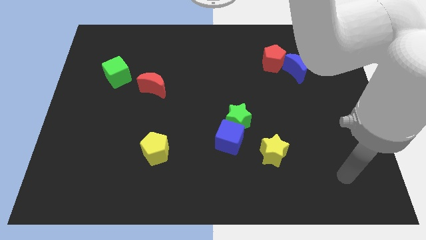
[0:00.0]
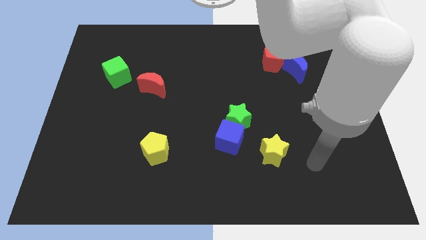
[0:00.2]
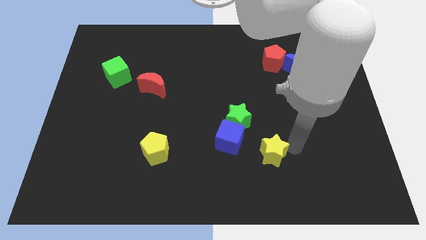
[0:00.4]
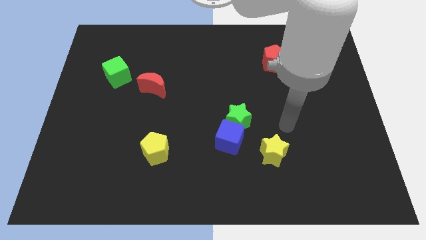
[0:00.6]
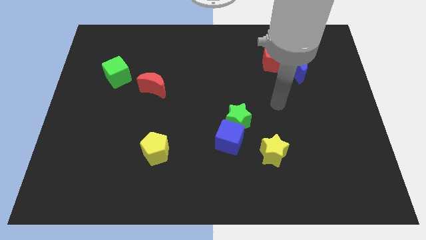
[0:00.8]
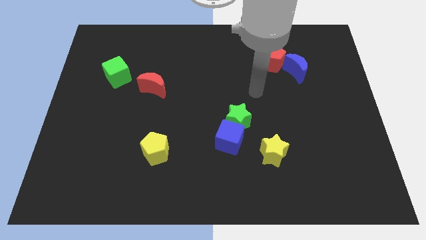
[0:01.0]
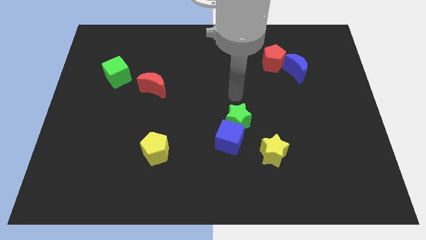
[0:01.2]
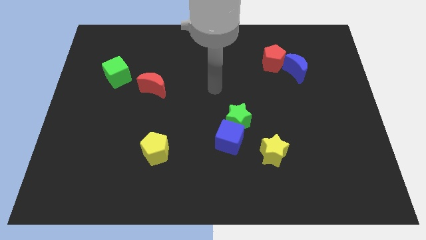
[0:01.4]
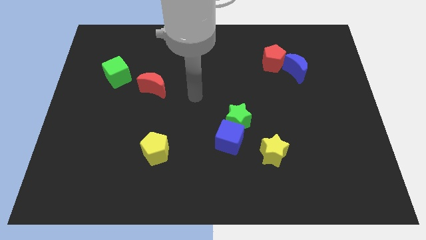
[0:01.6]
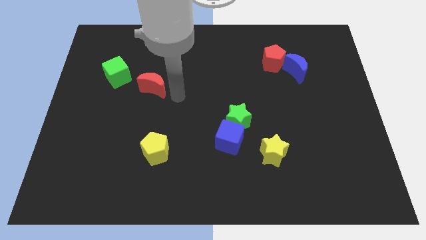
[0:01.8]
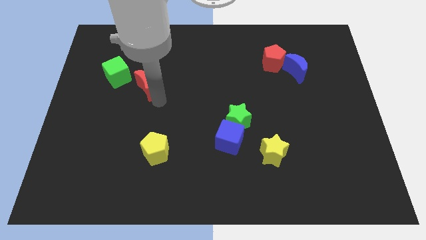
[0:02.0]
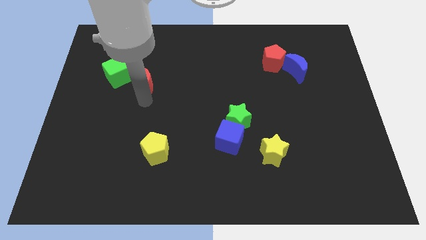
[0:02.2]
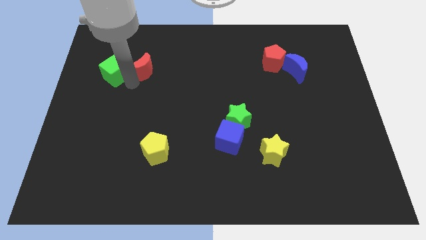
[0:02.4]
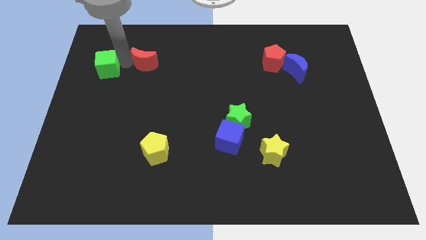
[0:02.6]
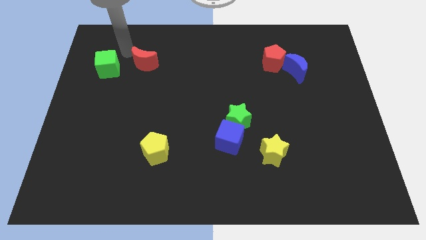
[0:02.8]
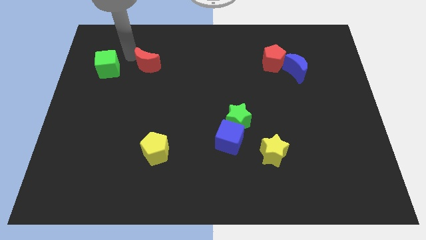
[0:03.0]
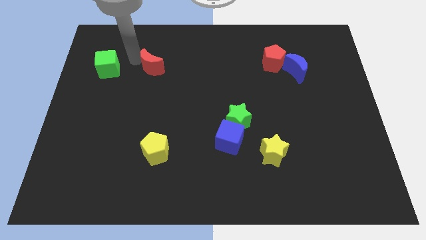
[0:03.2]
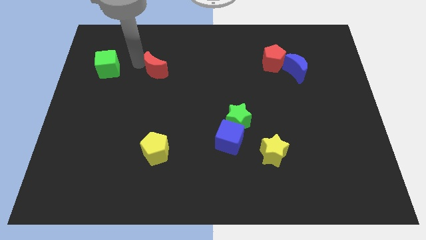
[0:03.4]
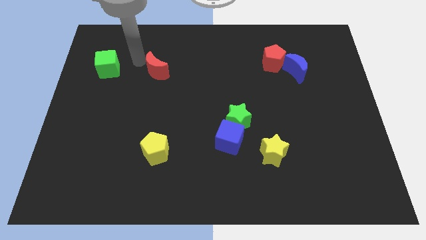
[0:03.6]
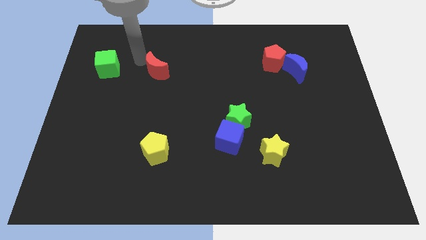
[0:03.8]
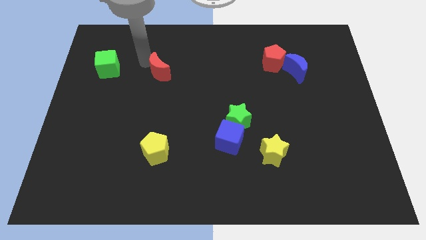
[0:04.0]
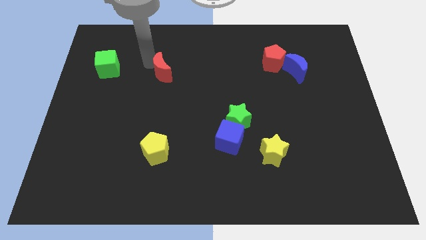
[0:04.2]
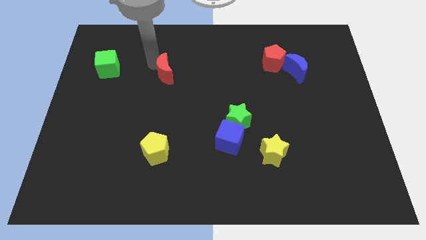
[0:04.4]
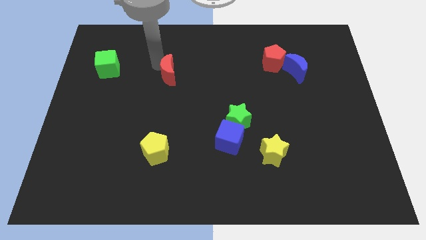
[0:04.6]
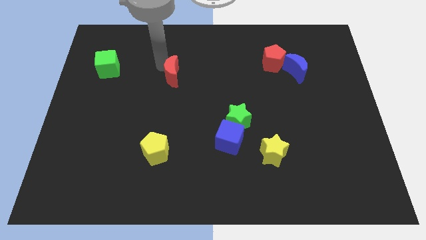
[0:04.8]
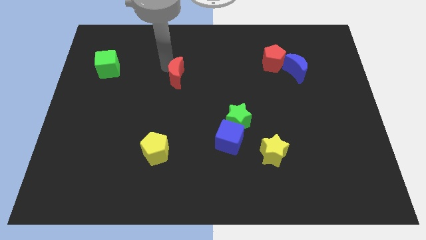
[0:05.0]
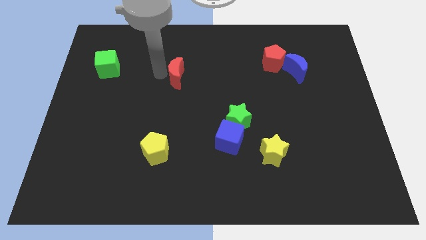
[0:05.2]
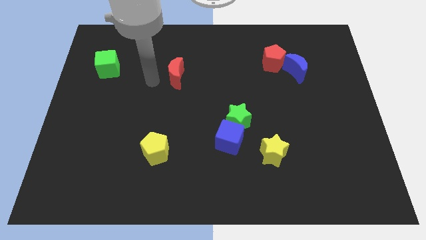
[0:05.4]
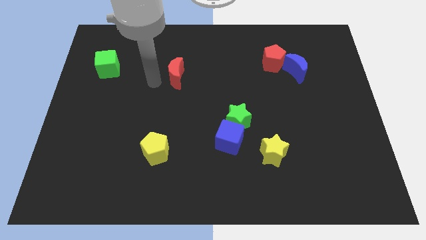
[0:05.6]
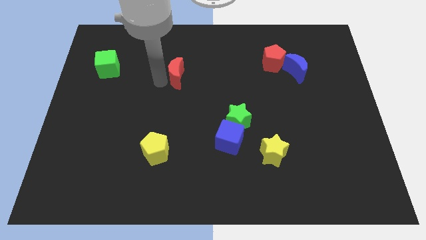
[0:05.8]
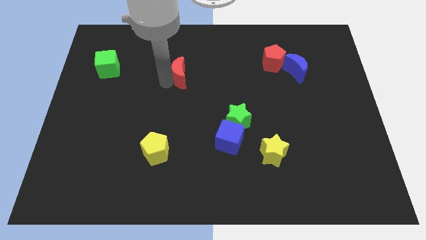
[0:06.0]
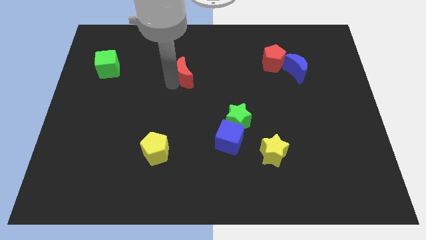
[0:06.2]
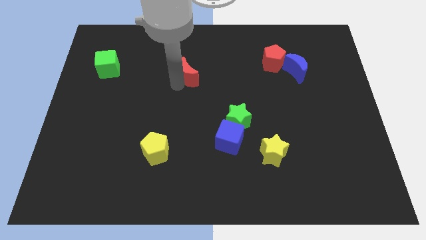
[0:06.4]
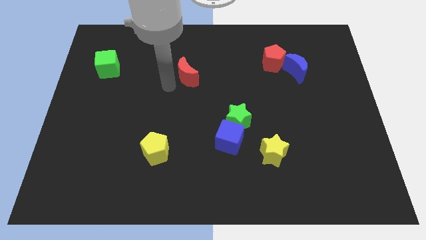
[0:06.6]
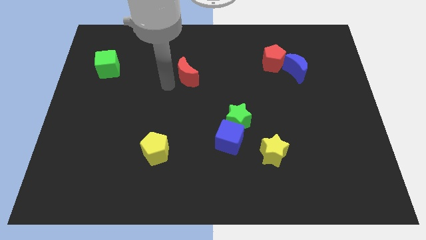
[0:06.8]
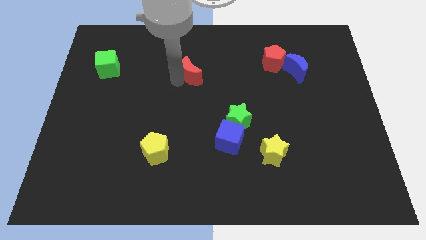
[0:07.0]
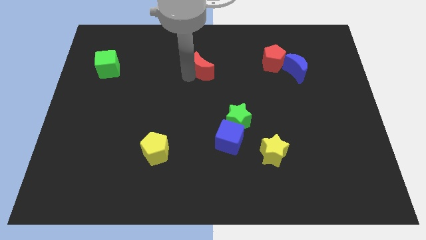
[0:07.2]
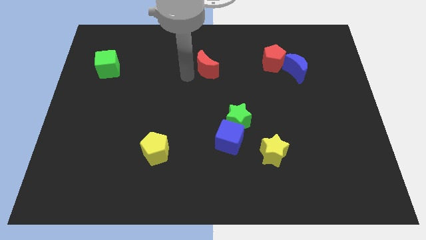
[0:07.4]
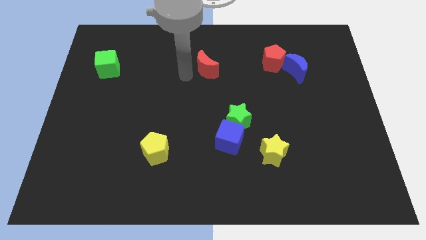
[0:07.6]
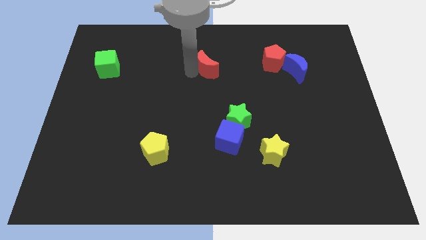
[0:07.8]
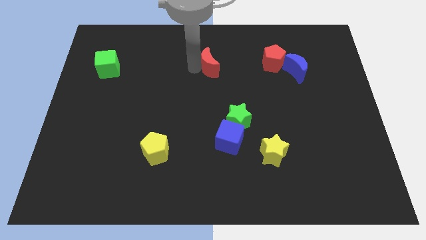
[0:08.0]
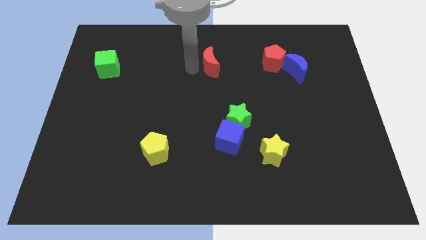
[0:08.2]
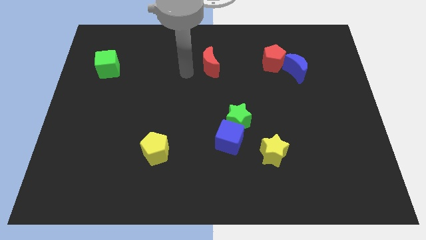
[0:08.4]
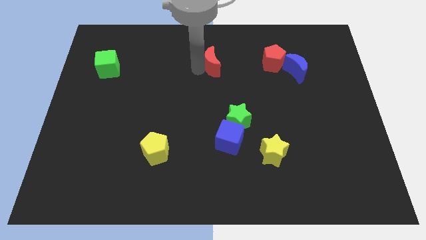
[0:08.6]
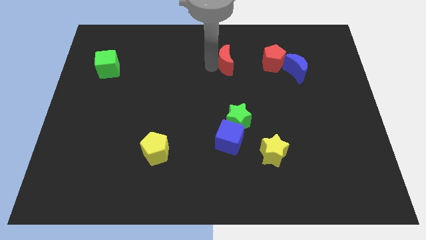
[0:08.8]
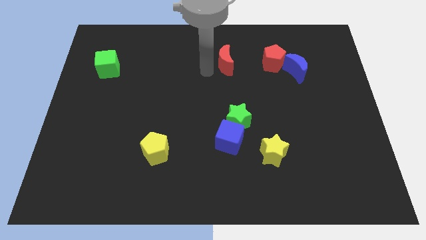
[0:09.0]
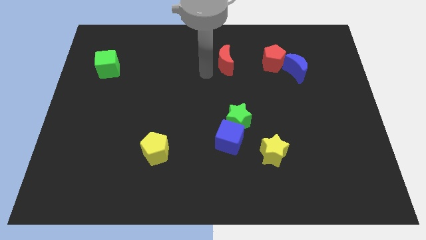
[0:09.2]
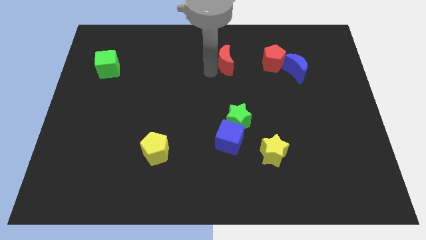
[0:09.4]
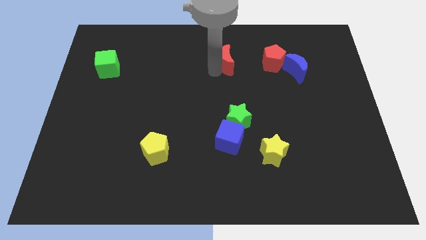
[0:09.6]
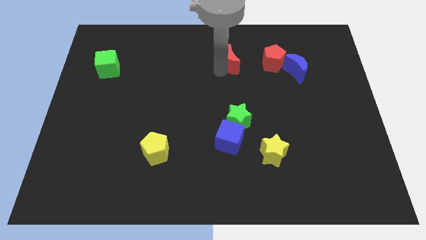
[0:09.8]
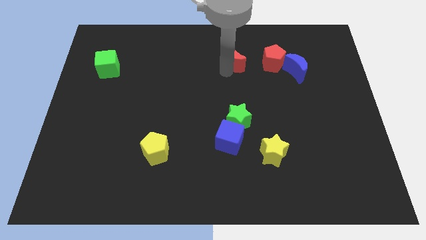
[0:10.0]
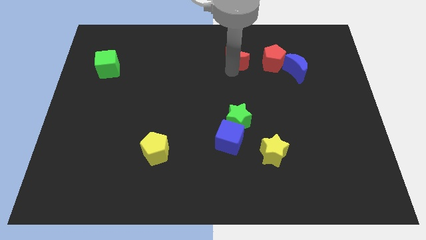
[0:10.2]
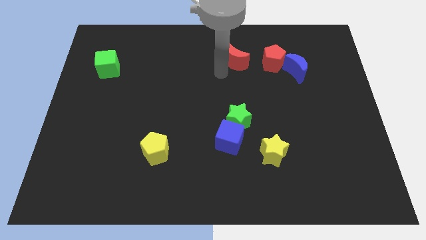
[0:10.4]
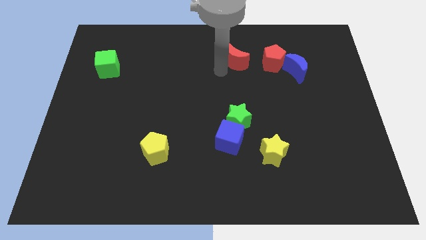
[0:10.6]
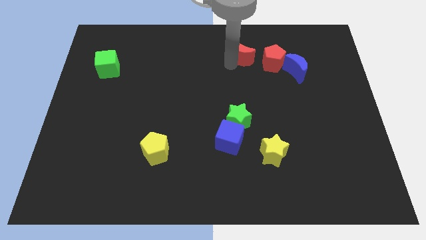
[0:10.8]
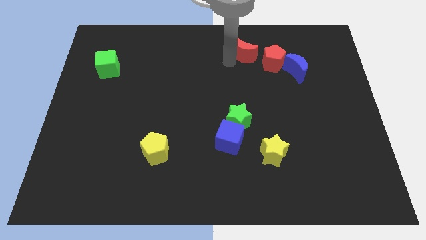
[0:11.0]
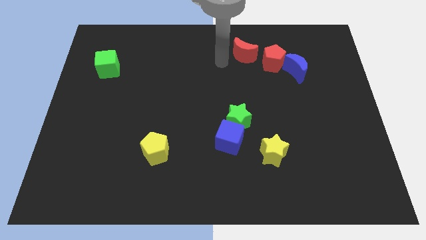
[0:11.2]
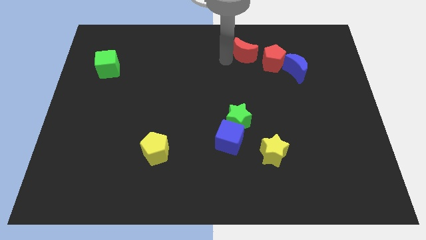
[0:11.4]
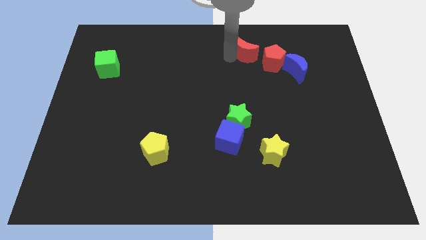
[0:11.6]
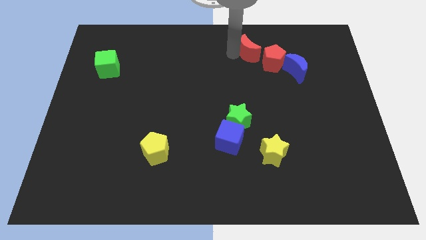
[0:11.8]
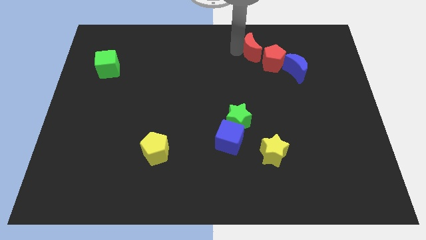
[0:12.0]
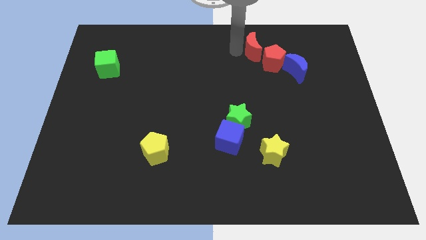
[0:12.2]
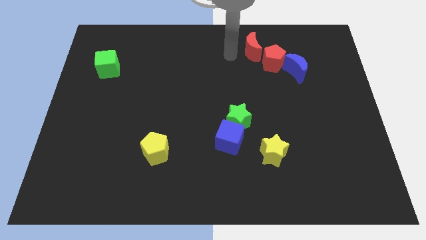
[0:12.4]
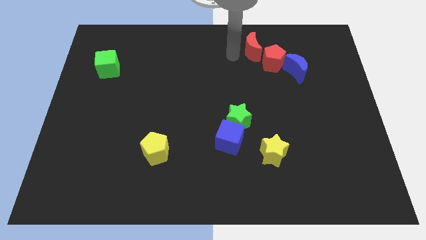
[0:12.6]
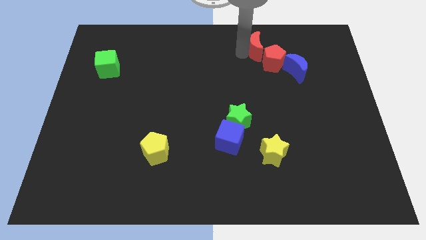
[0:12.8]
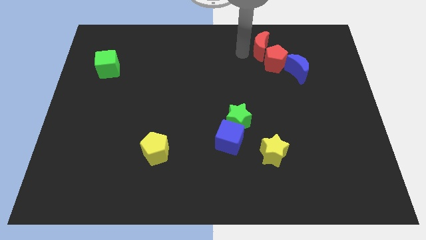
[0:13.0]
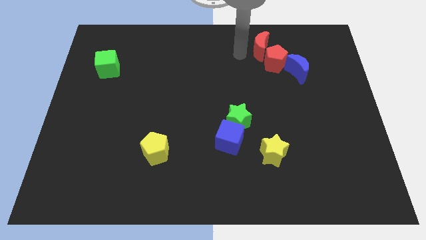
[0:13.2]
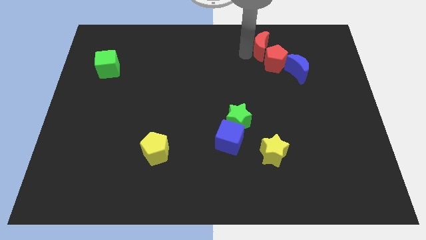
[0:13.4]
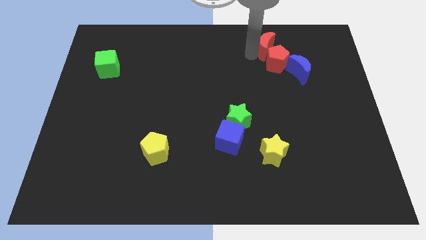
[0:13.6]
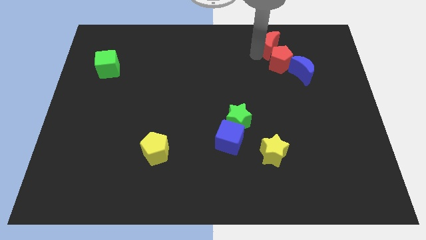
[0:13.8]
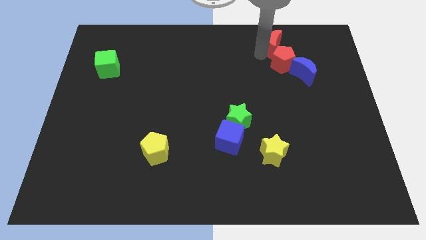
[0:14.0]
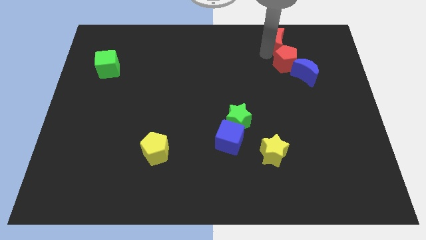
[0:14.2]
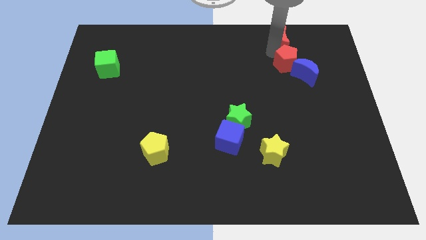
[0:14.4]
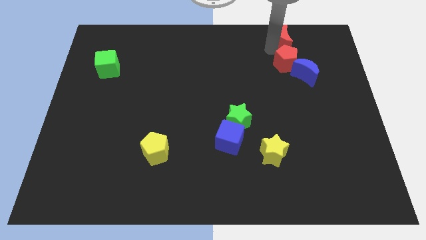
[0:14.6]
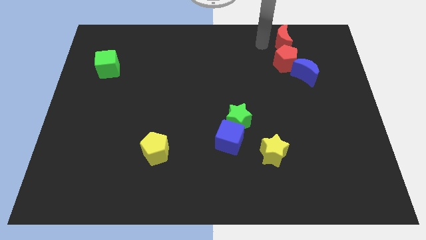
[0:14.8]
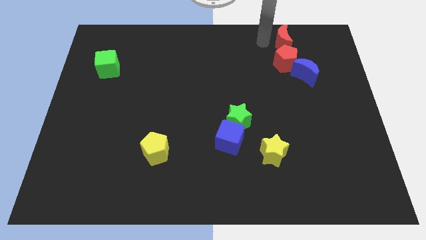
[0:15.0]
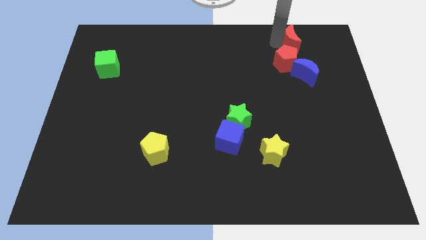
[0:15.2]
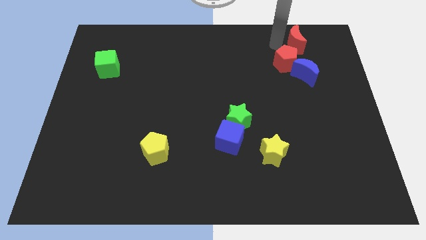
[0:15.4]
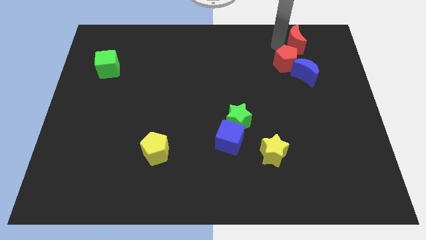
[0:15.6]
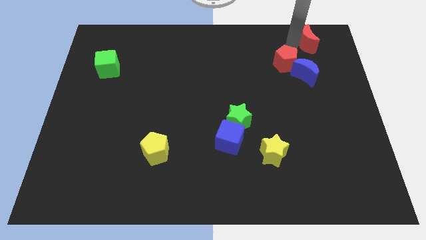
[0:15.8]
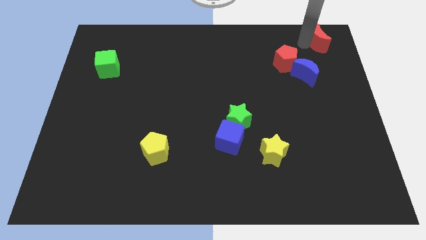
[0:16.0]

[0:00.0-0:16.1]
put the red moon to the upper right corner
